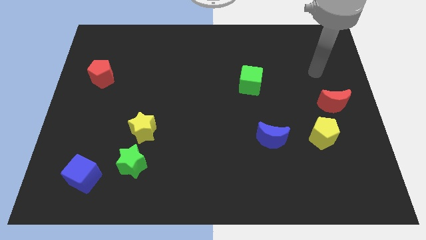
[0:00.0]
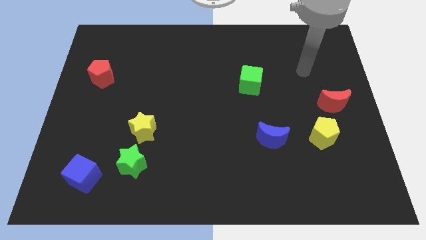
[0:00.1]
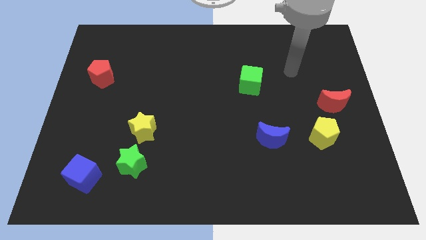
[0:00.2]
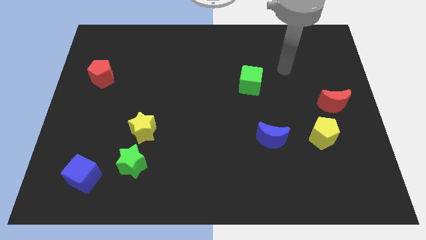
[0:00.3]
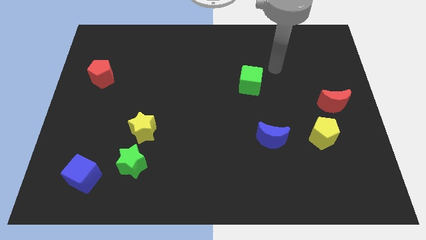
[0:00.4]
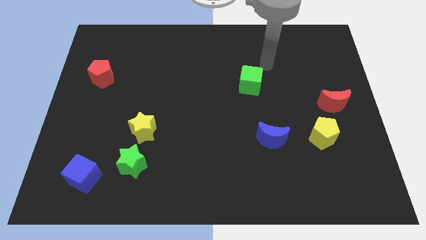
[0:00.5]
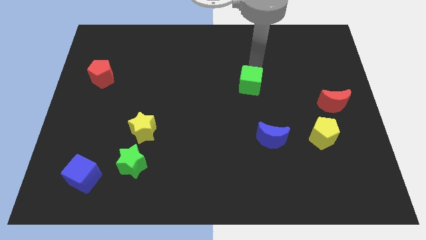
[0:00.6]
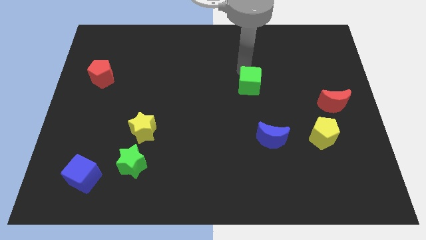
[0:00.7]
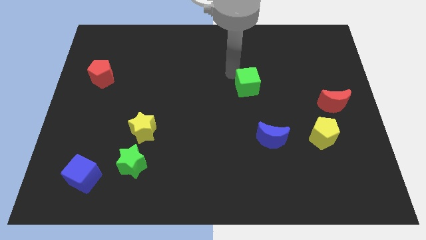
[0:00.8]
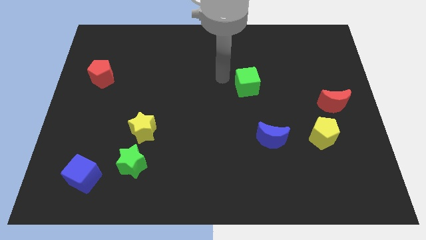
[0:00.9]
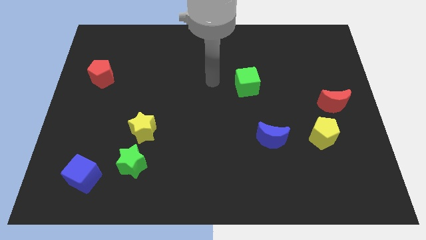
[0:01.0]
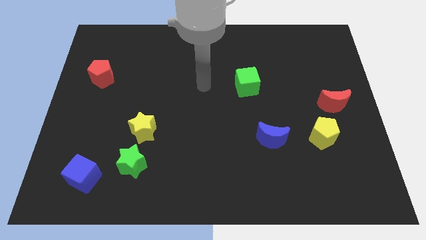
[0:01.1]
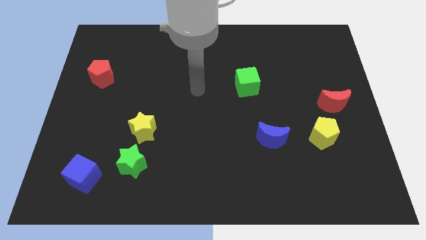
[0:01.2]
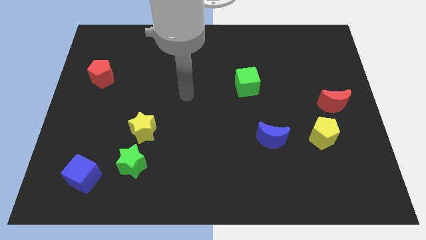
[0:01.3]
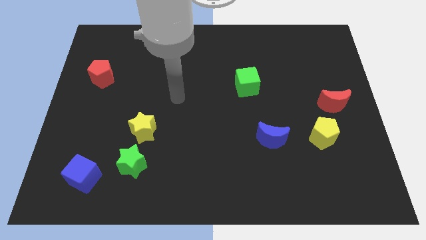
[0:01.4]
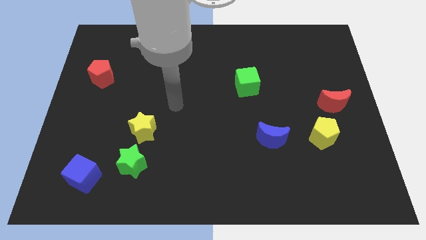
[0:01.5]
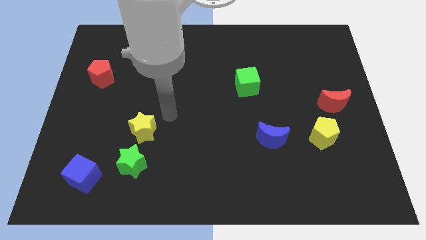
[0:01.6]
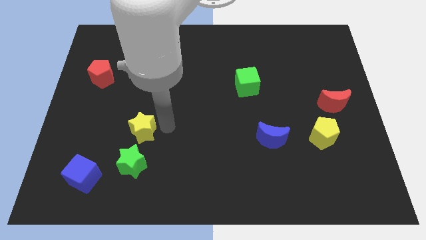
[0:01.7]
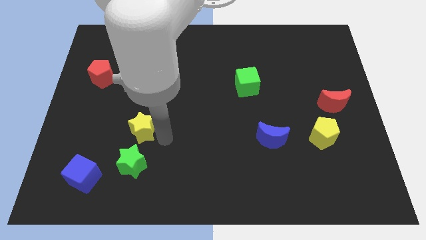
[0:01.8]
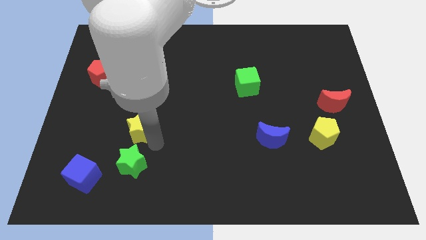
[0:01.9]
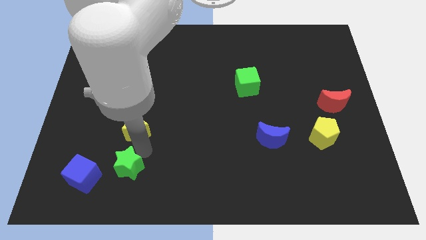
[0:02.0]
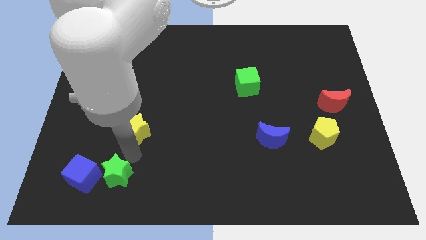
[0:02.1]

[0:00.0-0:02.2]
move the yellow star away from the green star

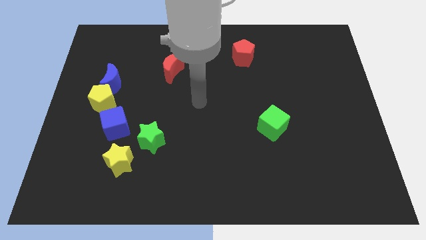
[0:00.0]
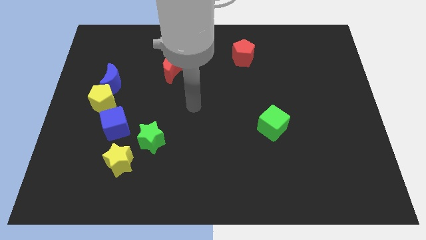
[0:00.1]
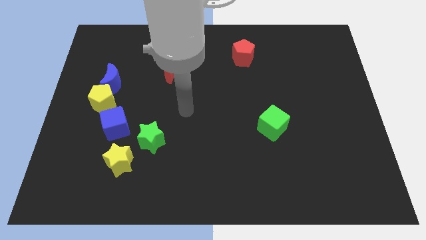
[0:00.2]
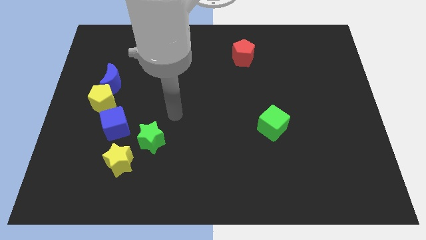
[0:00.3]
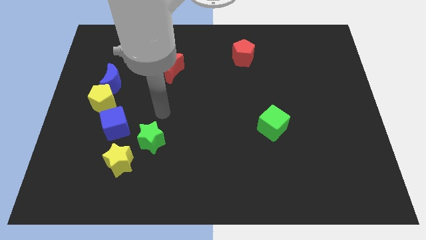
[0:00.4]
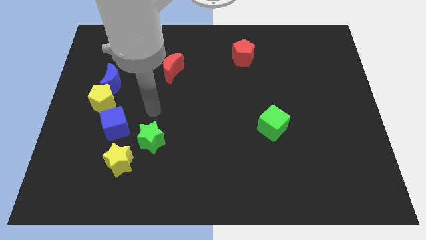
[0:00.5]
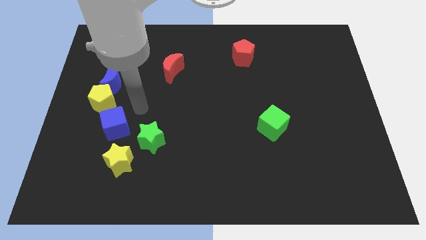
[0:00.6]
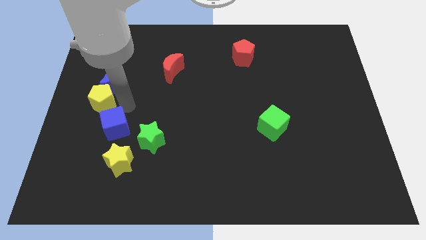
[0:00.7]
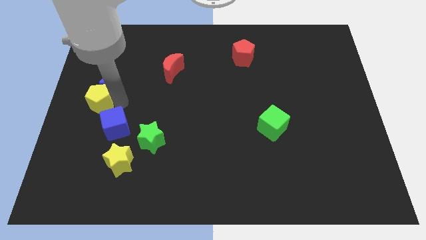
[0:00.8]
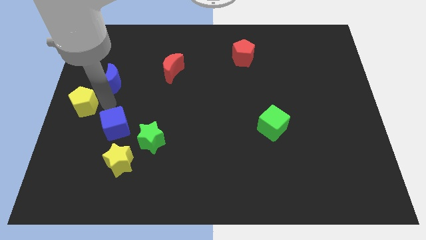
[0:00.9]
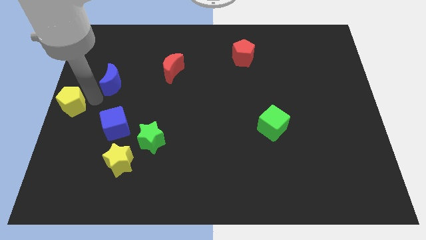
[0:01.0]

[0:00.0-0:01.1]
move the blue moon away from the yellow pentagon

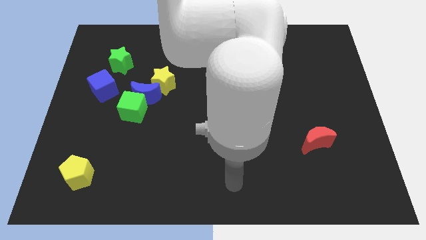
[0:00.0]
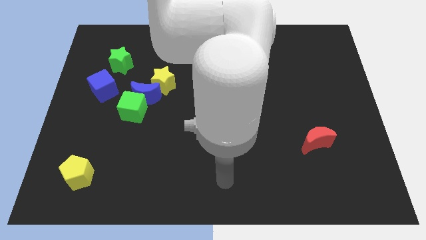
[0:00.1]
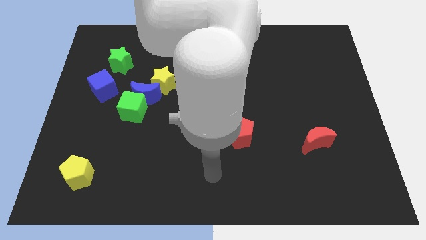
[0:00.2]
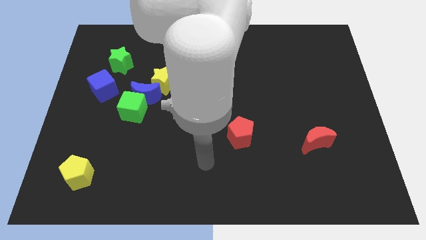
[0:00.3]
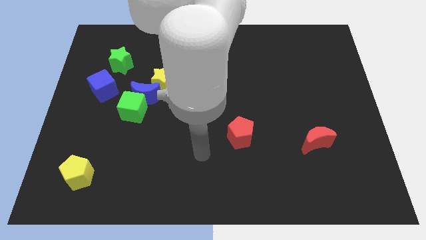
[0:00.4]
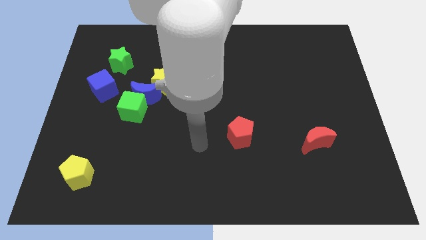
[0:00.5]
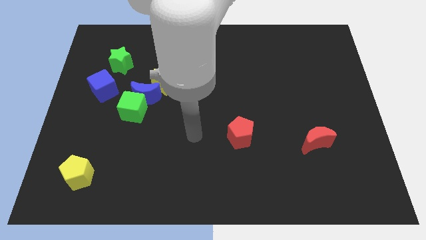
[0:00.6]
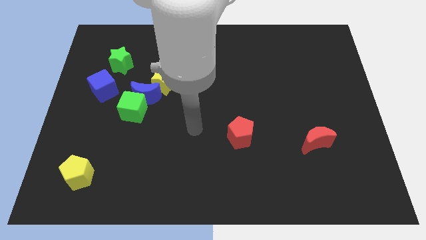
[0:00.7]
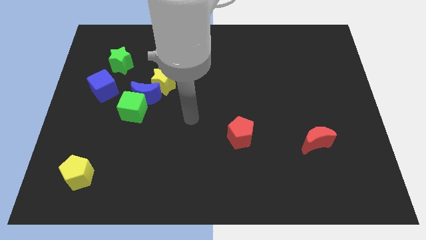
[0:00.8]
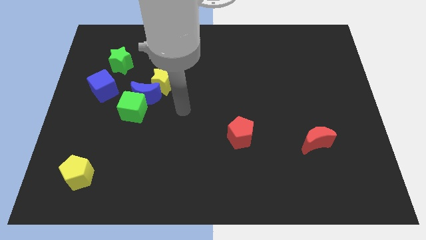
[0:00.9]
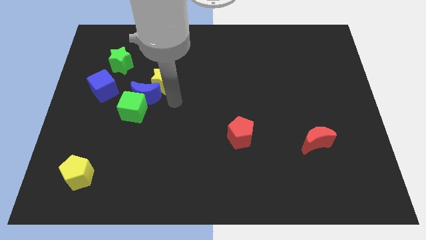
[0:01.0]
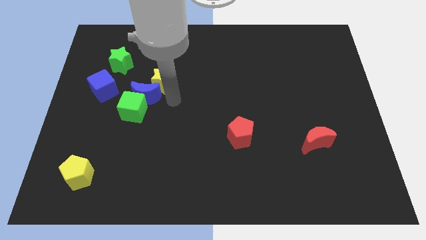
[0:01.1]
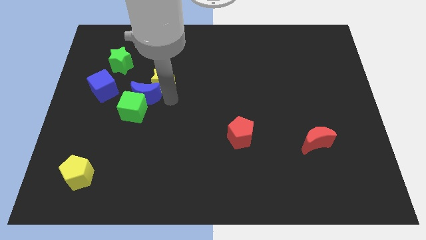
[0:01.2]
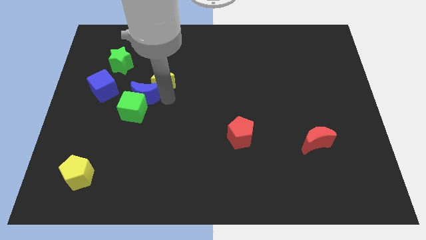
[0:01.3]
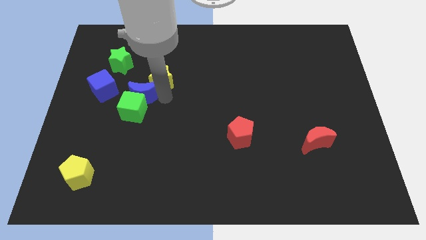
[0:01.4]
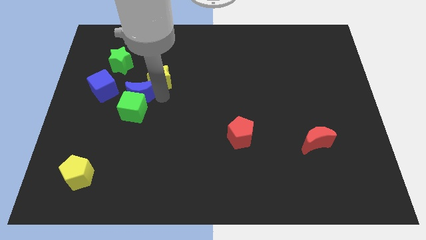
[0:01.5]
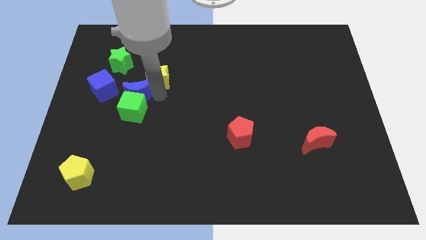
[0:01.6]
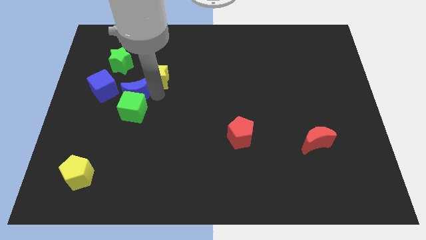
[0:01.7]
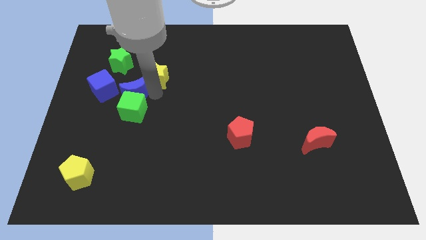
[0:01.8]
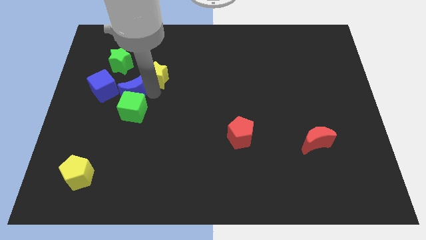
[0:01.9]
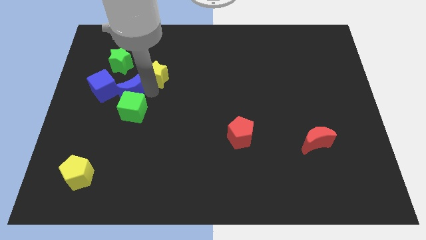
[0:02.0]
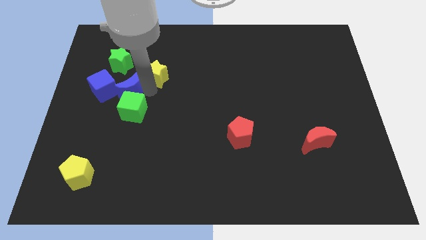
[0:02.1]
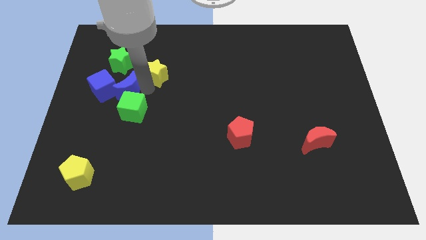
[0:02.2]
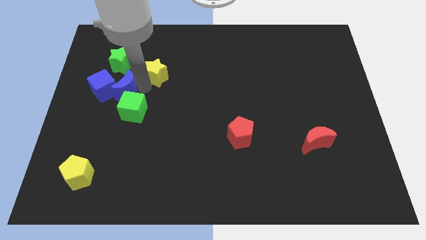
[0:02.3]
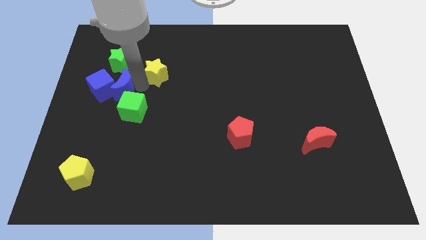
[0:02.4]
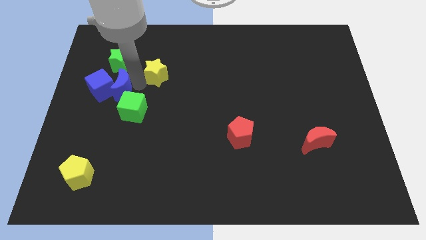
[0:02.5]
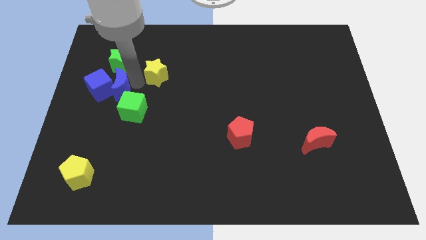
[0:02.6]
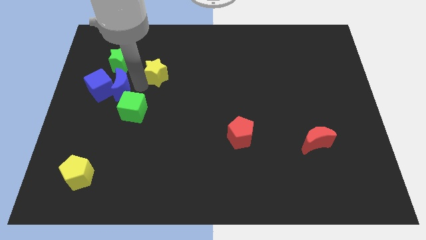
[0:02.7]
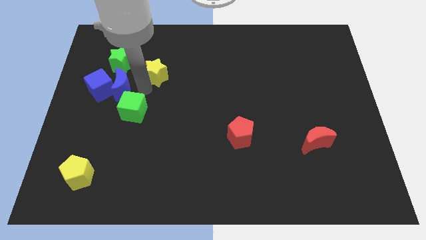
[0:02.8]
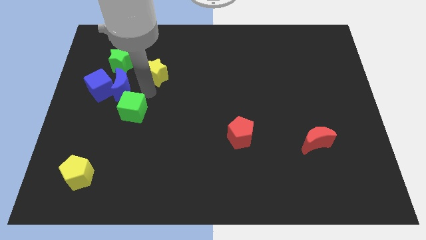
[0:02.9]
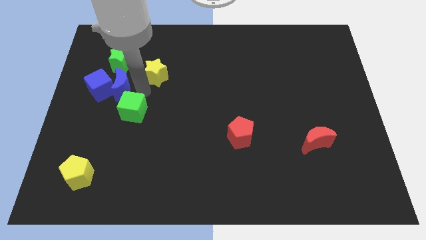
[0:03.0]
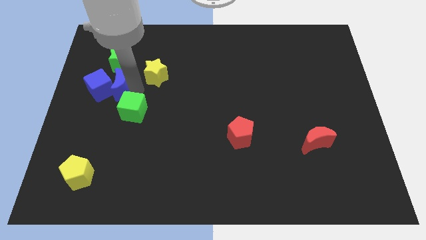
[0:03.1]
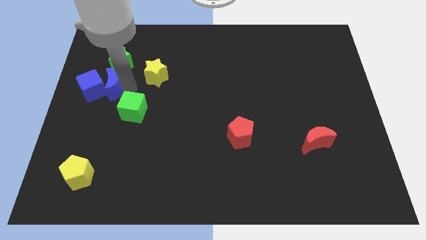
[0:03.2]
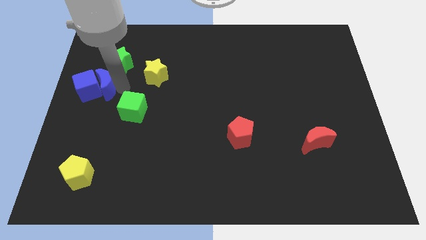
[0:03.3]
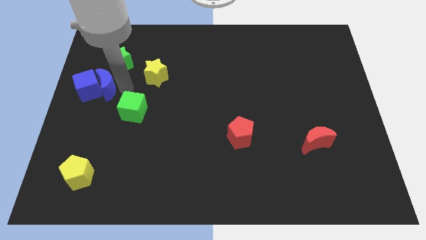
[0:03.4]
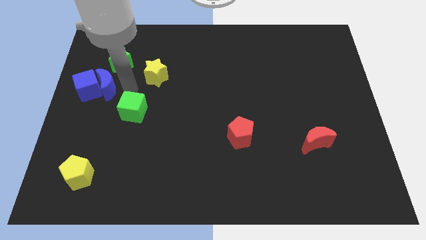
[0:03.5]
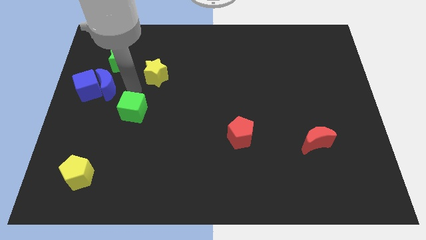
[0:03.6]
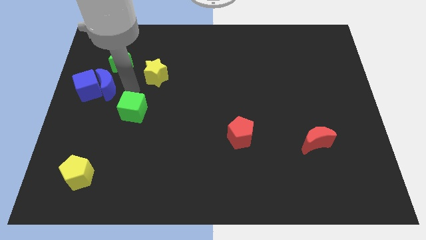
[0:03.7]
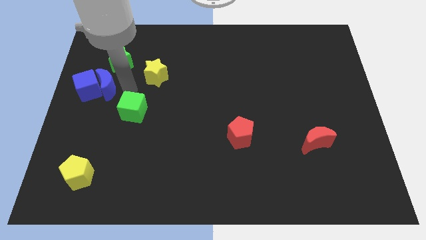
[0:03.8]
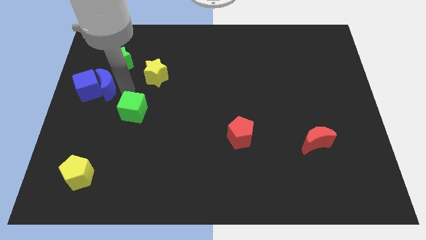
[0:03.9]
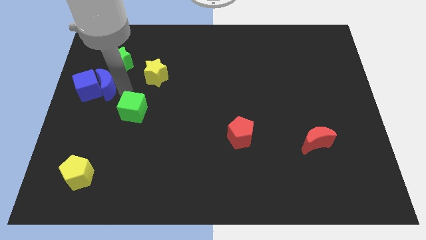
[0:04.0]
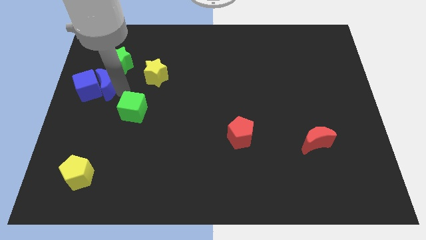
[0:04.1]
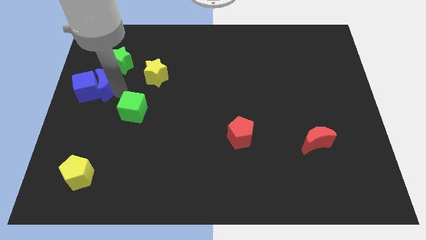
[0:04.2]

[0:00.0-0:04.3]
move the blue moon away from the green cube and yellow star

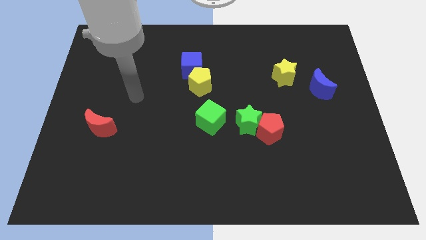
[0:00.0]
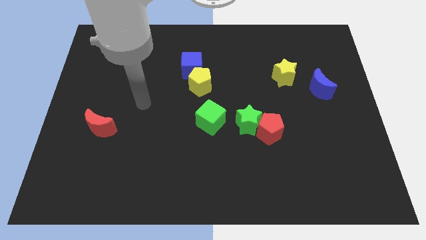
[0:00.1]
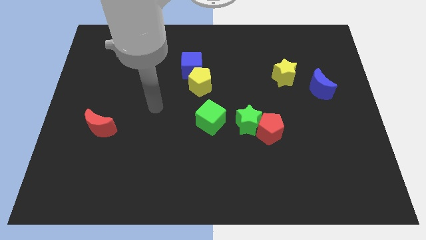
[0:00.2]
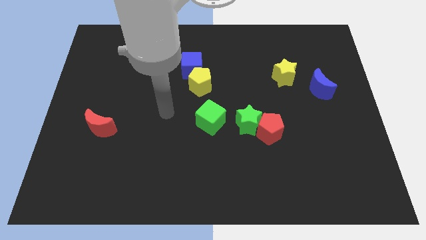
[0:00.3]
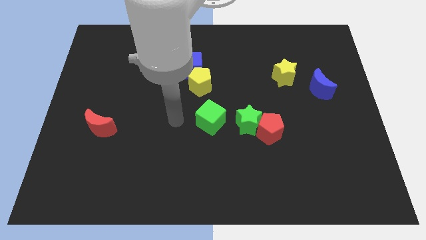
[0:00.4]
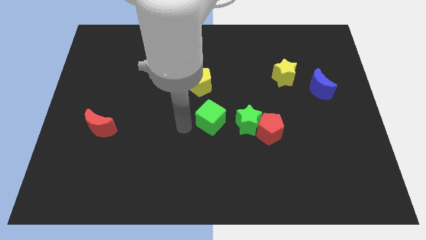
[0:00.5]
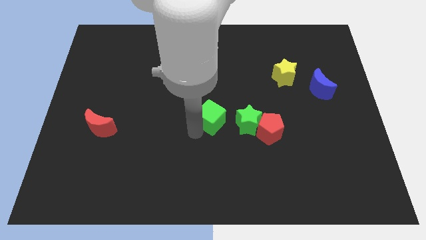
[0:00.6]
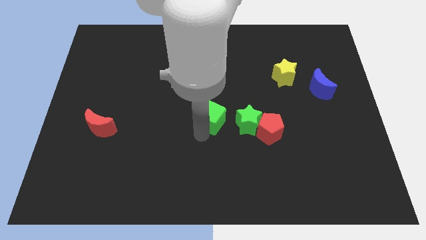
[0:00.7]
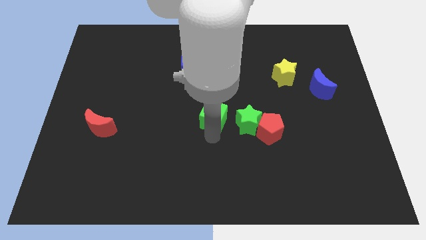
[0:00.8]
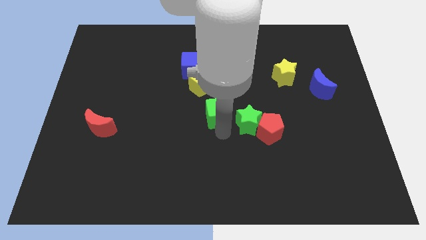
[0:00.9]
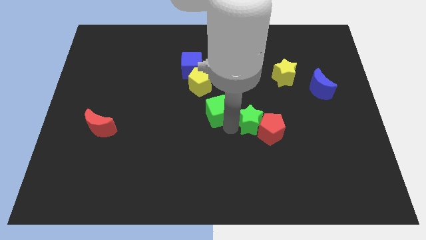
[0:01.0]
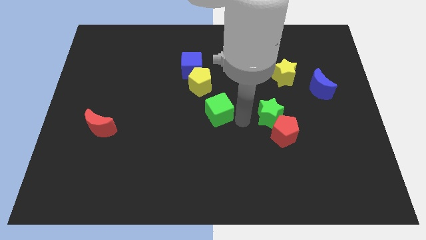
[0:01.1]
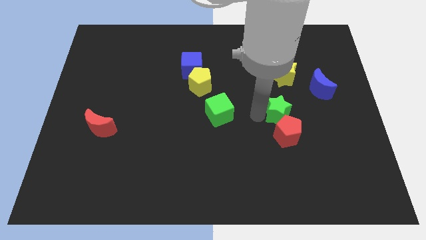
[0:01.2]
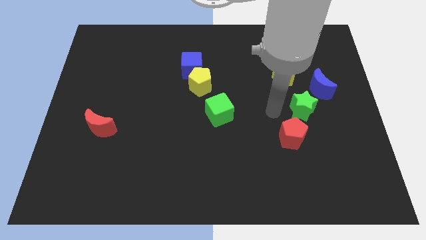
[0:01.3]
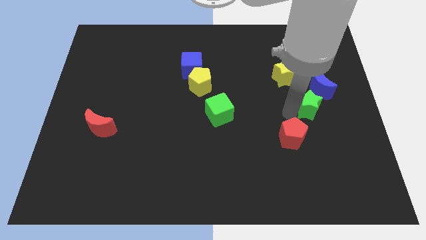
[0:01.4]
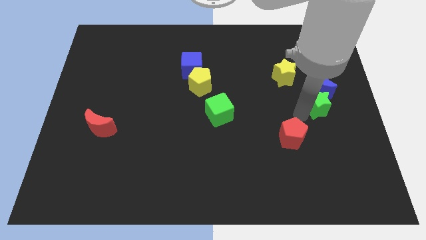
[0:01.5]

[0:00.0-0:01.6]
separate the red pentagon from the green star

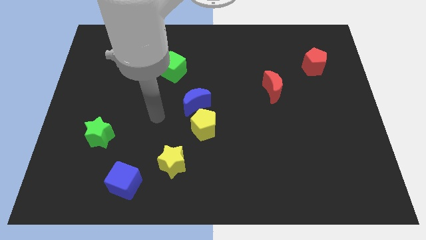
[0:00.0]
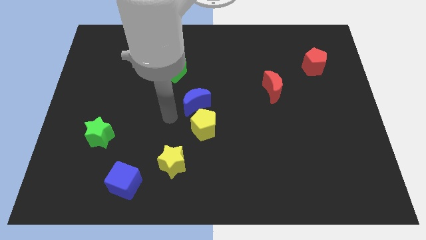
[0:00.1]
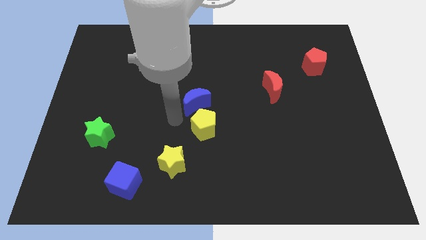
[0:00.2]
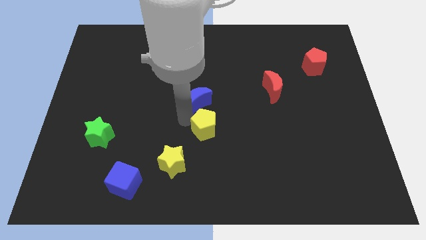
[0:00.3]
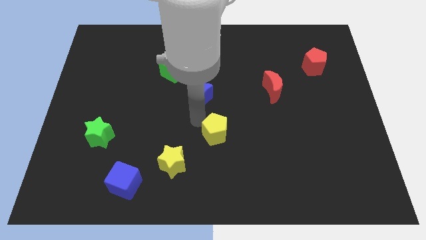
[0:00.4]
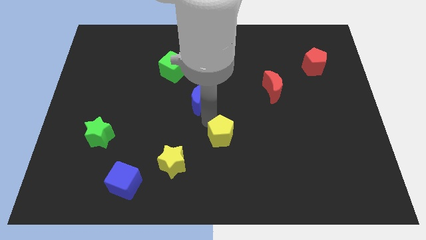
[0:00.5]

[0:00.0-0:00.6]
pull the blue moon apart from the yellow pentagon
